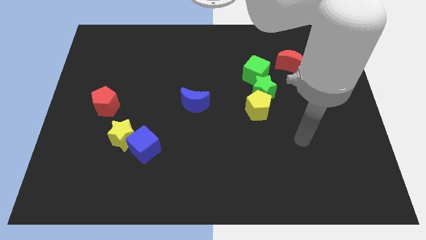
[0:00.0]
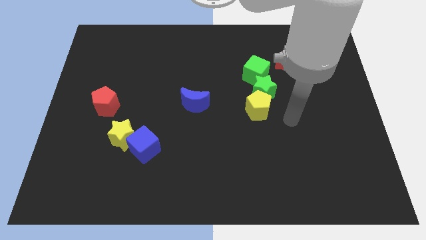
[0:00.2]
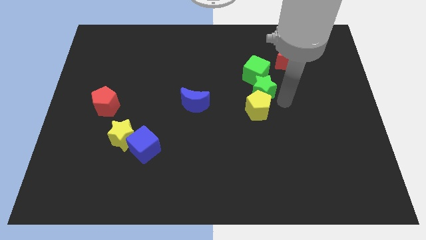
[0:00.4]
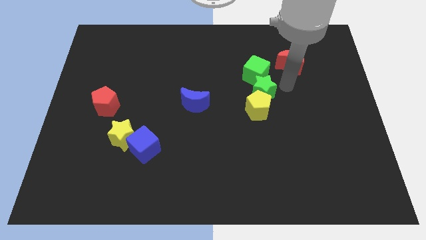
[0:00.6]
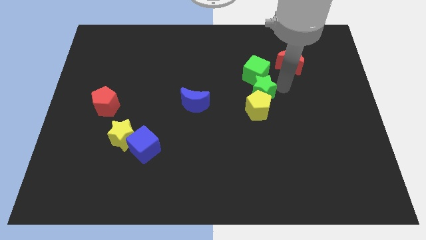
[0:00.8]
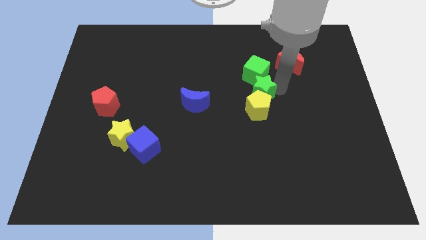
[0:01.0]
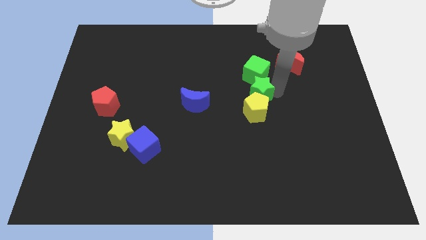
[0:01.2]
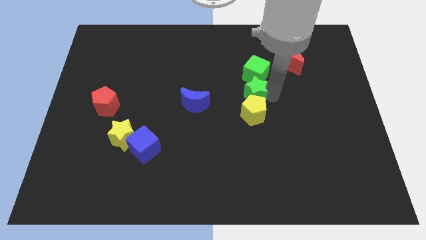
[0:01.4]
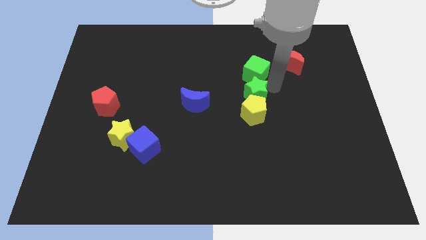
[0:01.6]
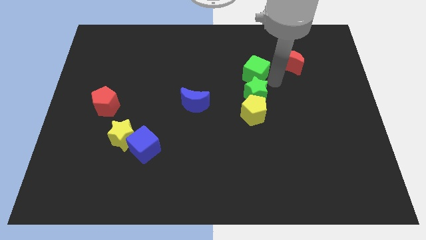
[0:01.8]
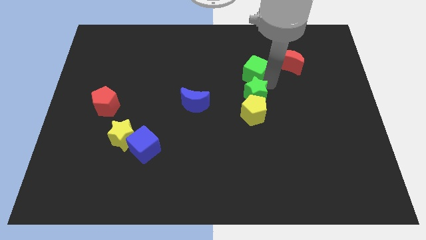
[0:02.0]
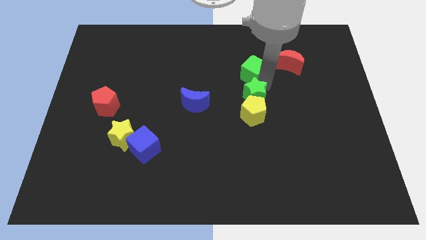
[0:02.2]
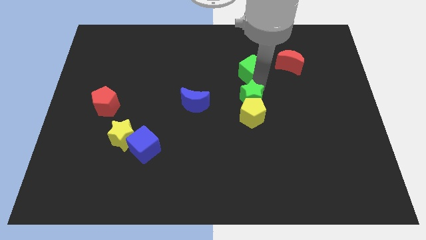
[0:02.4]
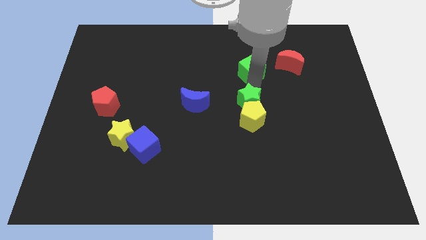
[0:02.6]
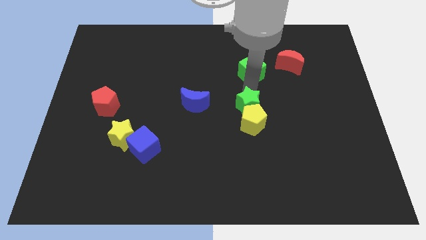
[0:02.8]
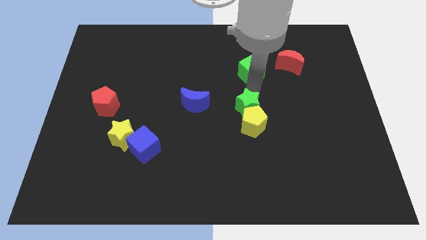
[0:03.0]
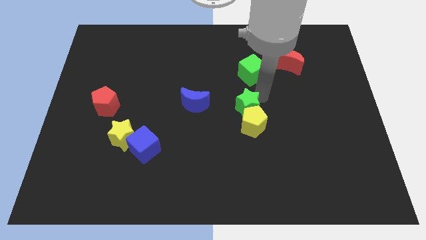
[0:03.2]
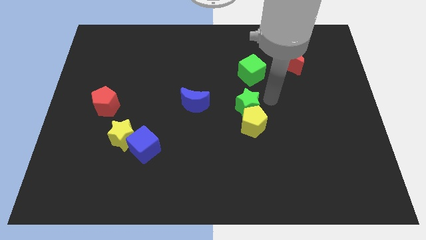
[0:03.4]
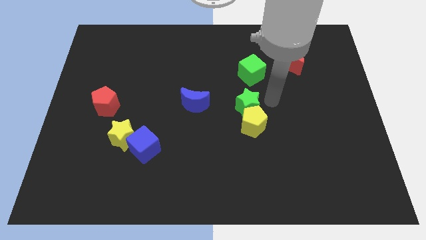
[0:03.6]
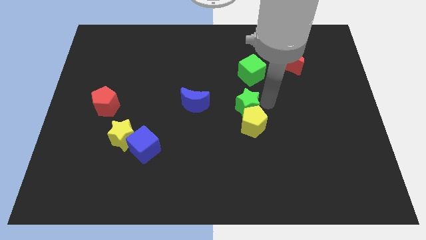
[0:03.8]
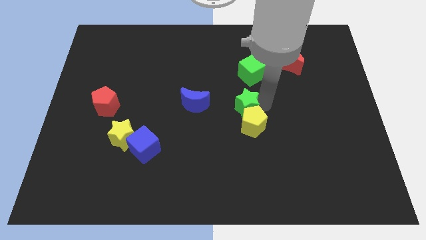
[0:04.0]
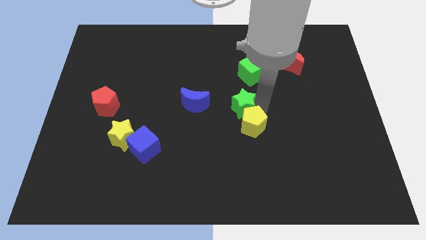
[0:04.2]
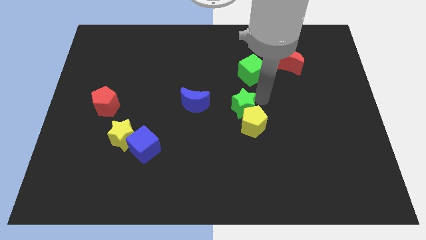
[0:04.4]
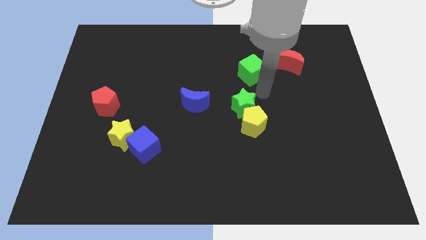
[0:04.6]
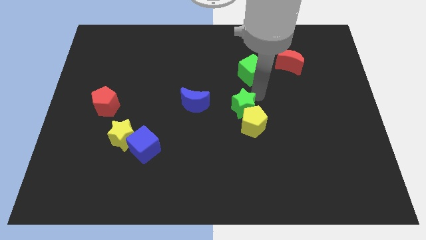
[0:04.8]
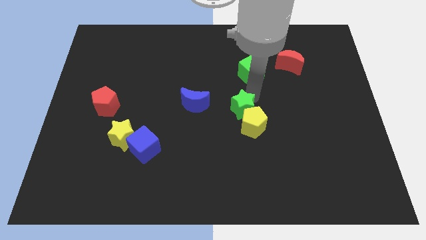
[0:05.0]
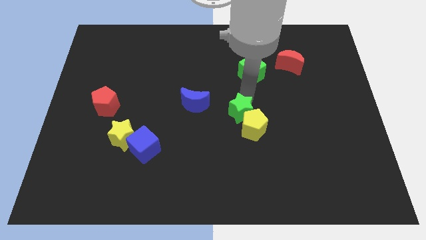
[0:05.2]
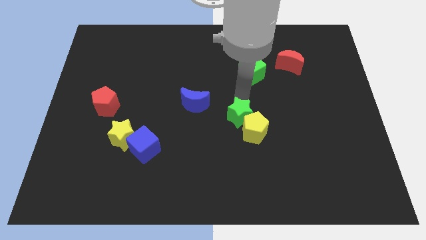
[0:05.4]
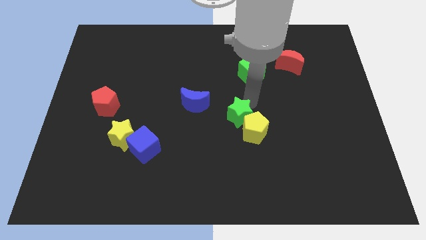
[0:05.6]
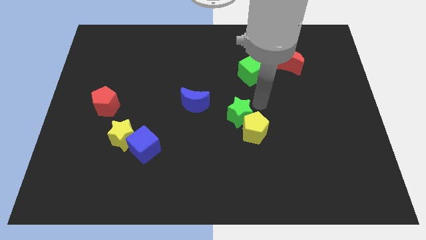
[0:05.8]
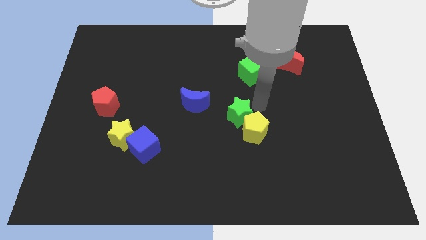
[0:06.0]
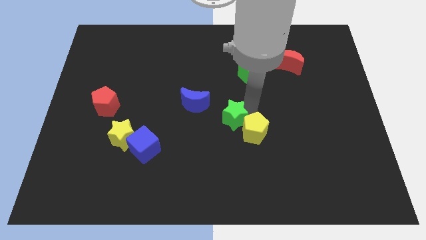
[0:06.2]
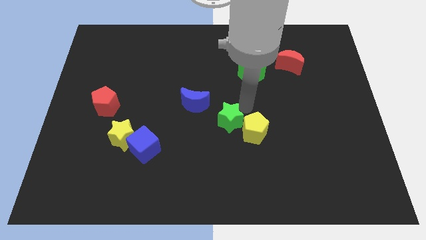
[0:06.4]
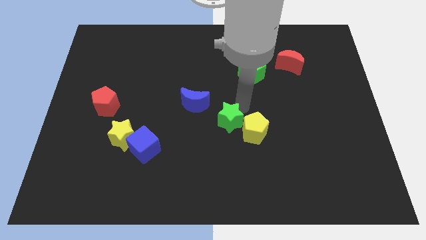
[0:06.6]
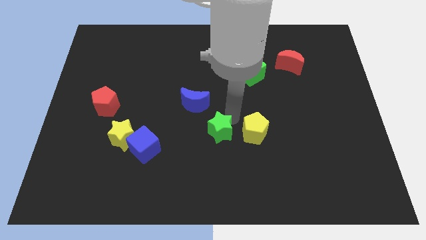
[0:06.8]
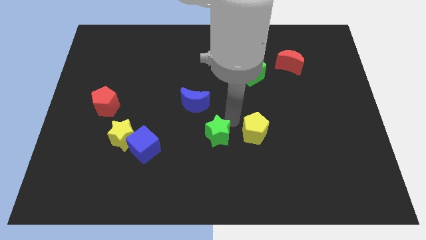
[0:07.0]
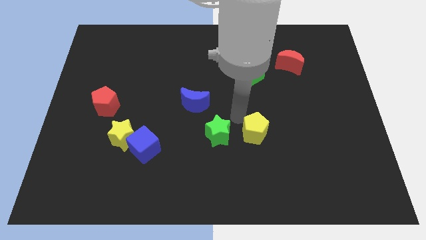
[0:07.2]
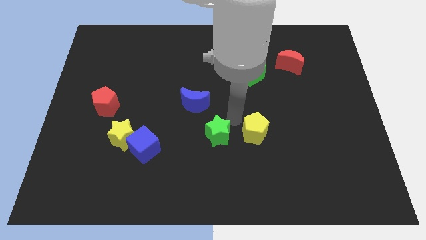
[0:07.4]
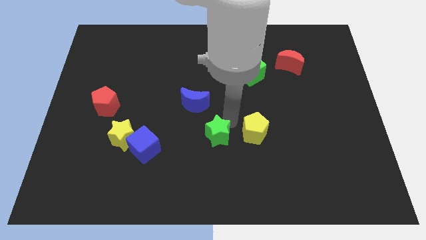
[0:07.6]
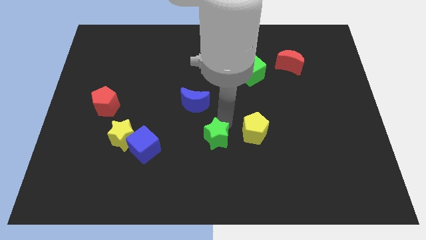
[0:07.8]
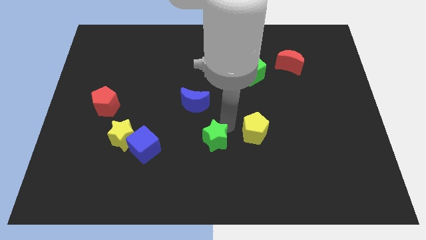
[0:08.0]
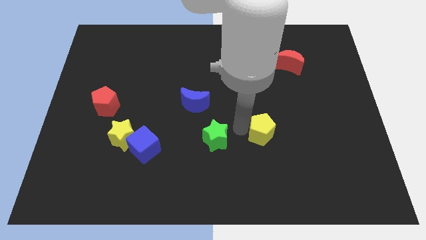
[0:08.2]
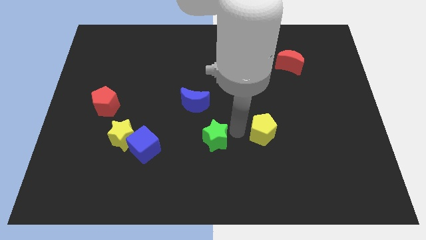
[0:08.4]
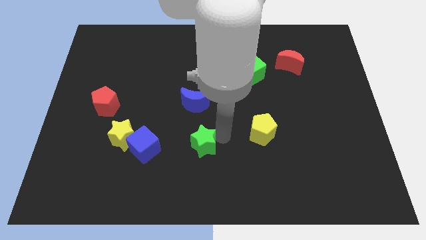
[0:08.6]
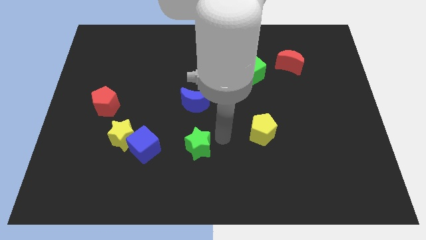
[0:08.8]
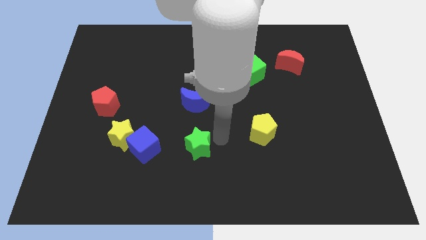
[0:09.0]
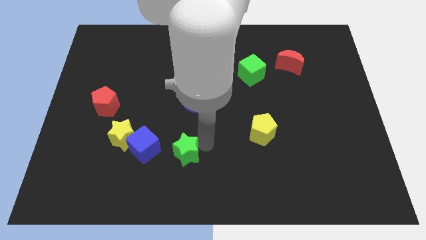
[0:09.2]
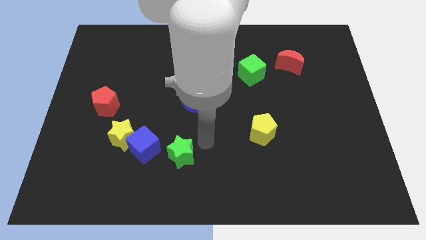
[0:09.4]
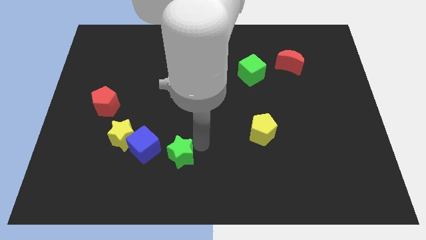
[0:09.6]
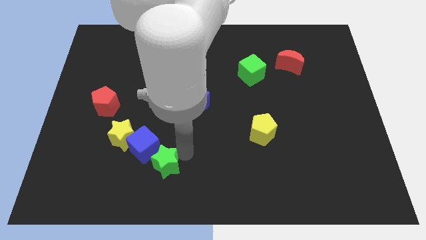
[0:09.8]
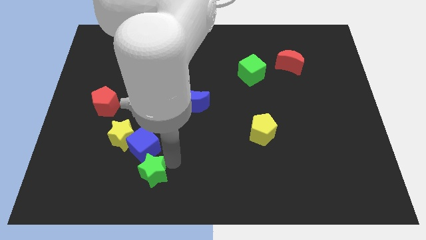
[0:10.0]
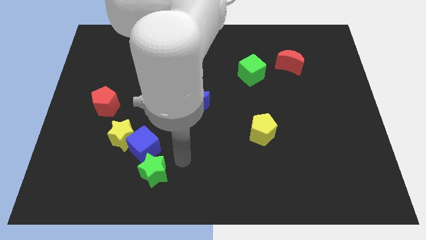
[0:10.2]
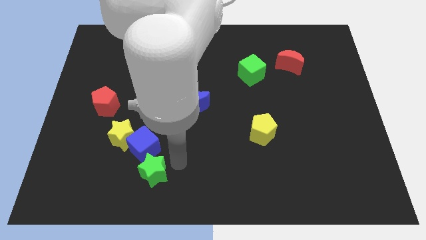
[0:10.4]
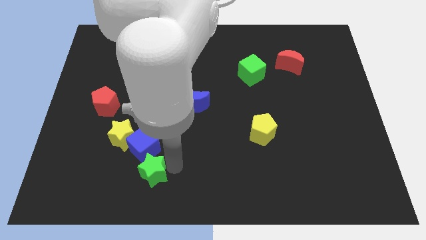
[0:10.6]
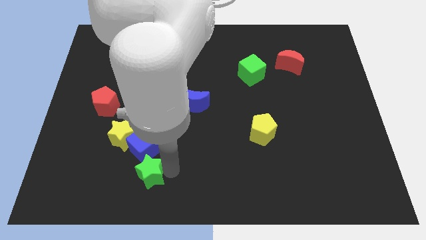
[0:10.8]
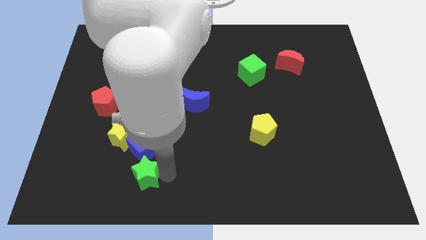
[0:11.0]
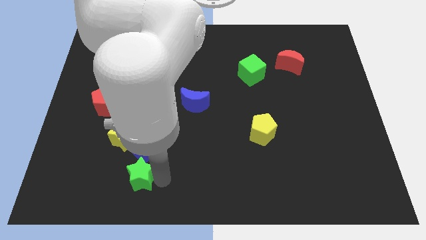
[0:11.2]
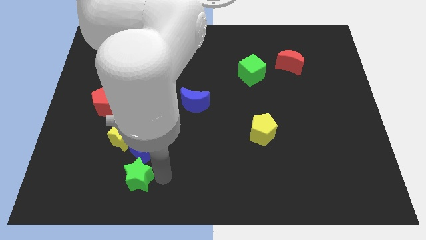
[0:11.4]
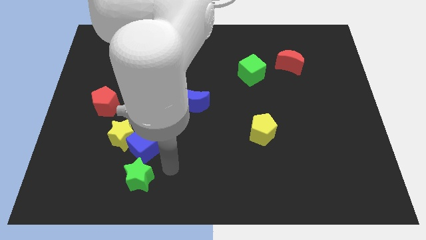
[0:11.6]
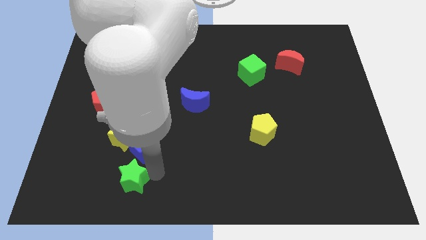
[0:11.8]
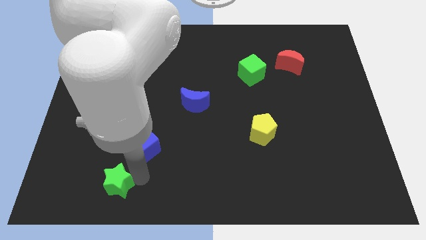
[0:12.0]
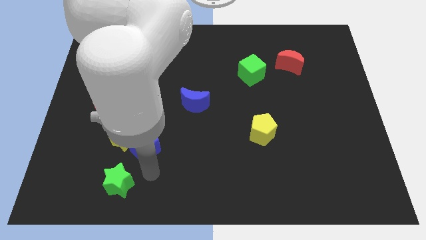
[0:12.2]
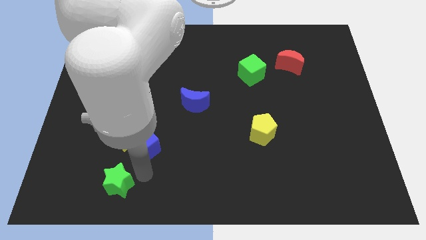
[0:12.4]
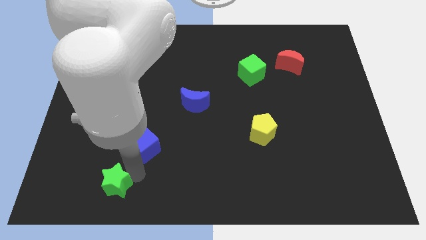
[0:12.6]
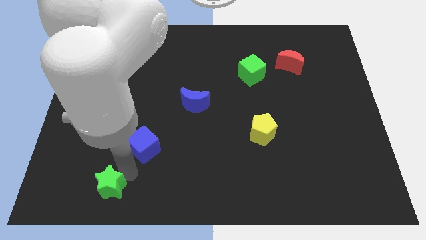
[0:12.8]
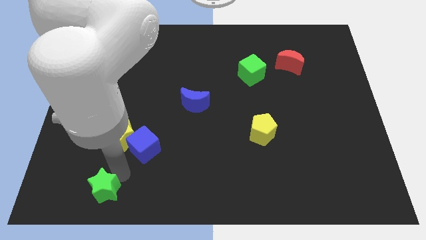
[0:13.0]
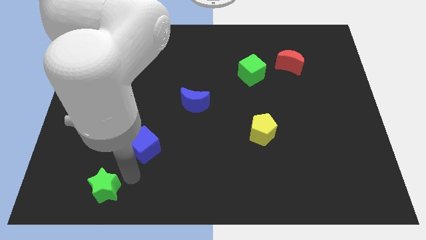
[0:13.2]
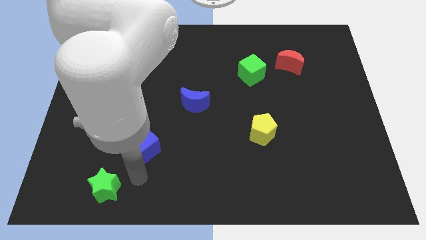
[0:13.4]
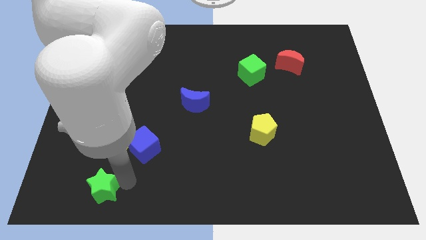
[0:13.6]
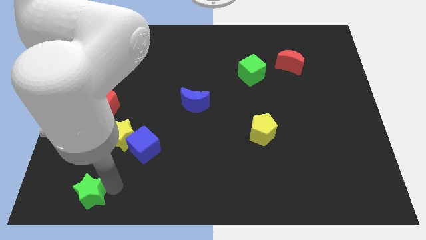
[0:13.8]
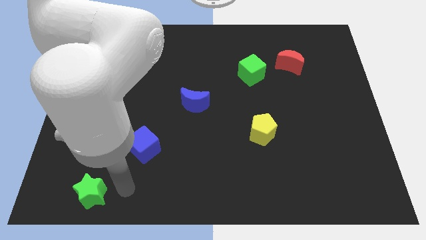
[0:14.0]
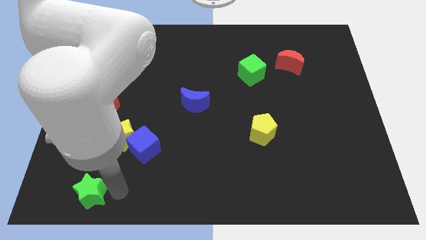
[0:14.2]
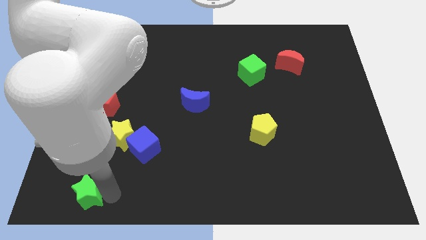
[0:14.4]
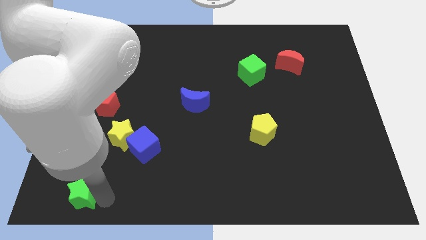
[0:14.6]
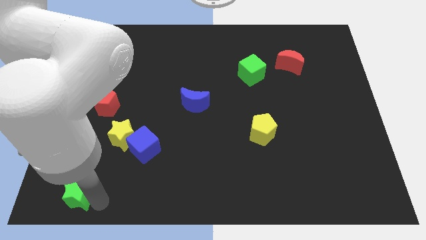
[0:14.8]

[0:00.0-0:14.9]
slide the green star to the lower left corner
